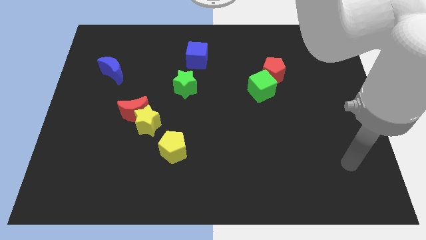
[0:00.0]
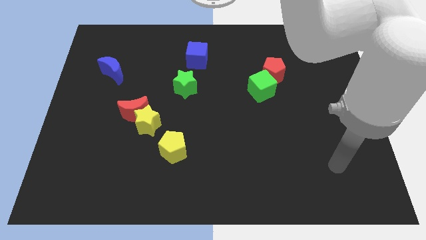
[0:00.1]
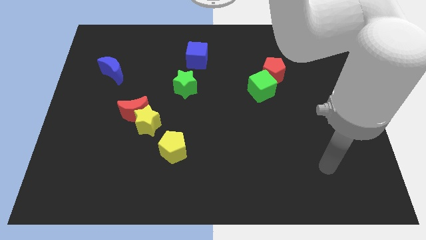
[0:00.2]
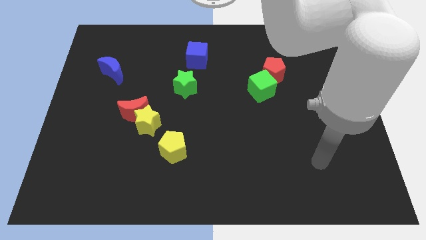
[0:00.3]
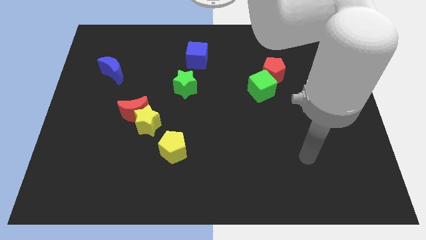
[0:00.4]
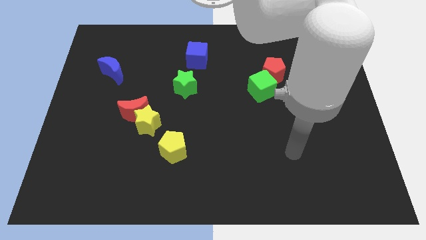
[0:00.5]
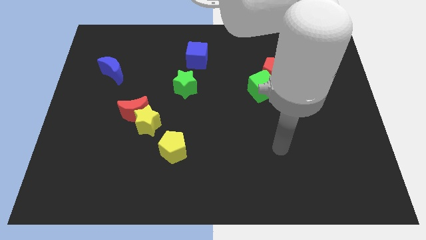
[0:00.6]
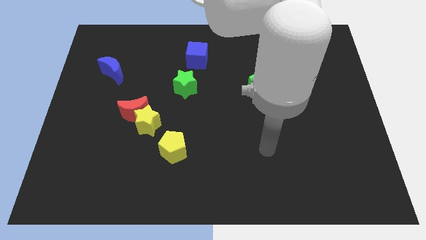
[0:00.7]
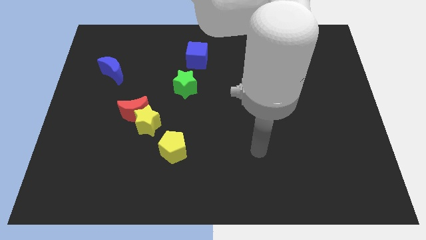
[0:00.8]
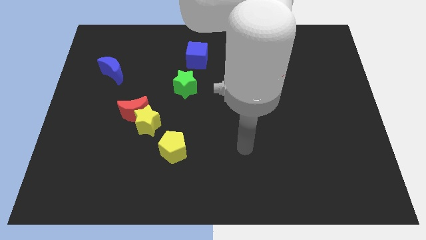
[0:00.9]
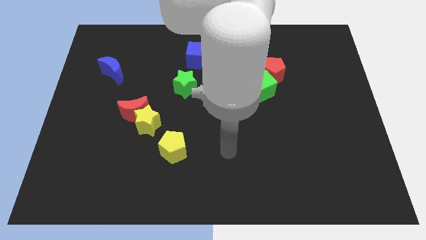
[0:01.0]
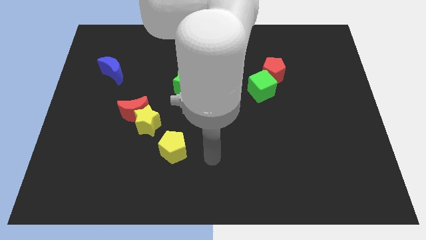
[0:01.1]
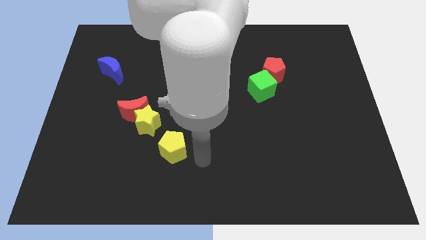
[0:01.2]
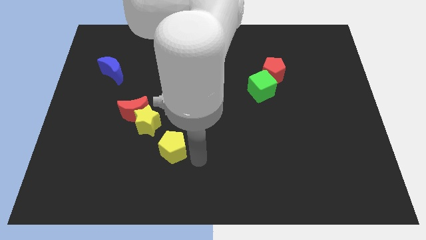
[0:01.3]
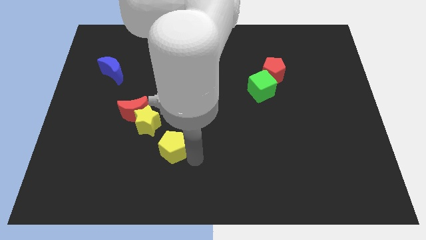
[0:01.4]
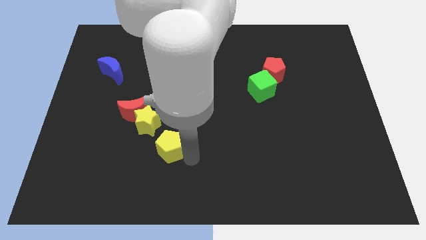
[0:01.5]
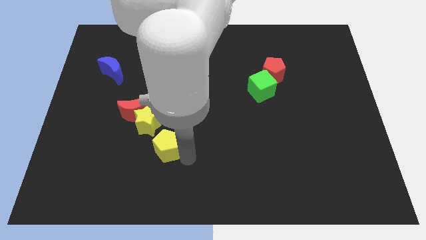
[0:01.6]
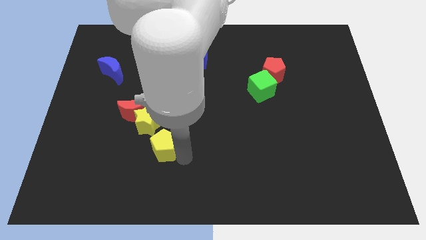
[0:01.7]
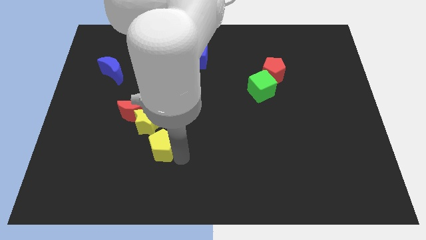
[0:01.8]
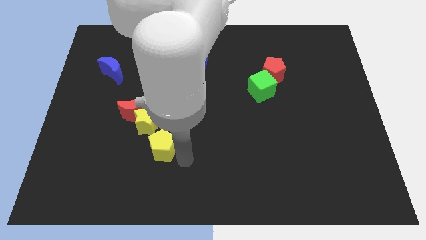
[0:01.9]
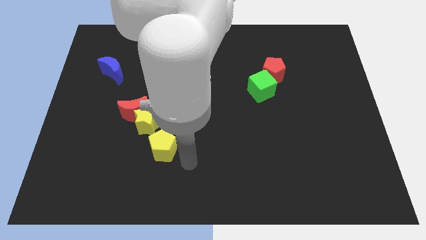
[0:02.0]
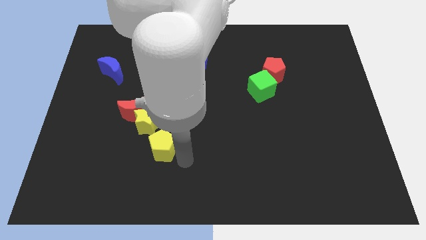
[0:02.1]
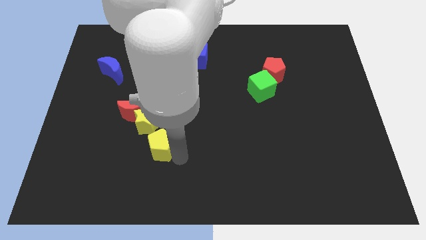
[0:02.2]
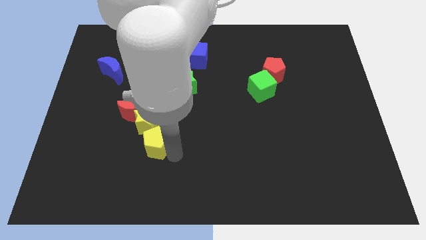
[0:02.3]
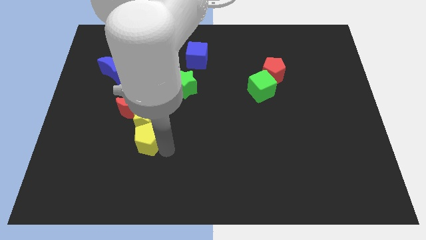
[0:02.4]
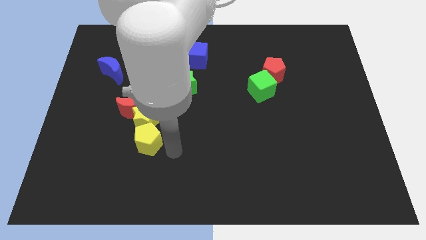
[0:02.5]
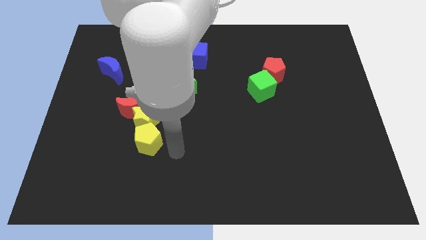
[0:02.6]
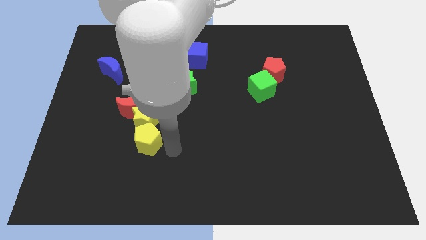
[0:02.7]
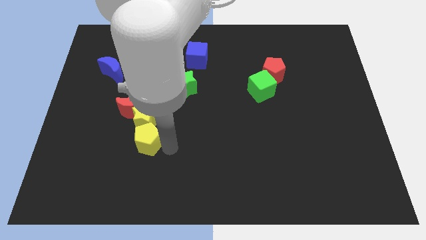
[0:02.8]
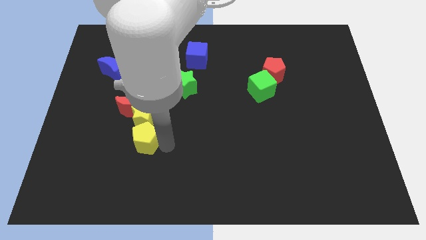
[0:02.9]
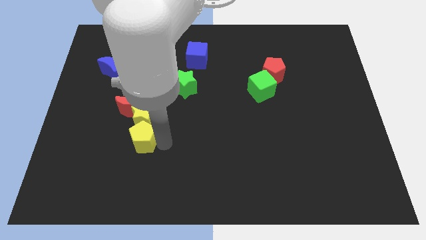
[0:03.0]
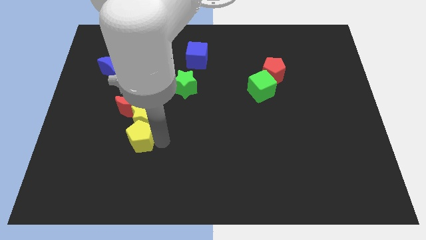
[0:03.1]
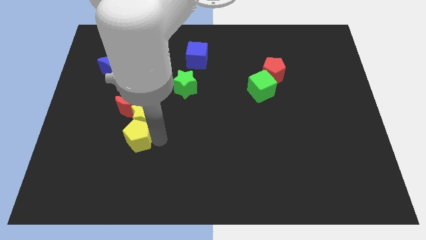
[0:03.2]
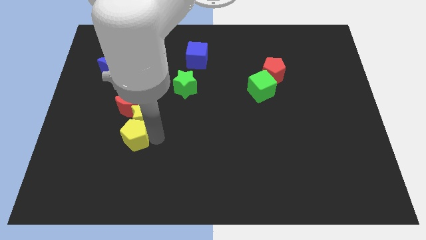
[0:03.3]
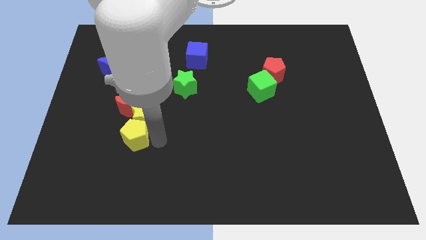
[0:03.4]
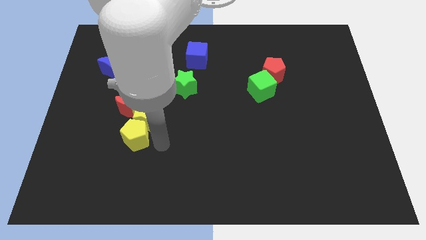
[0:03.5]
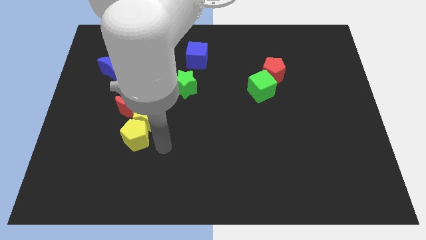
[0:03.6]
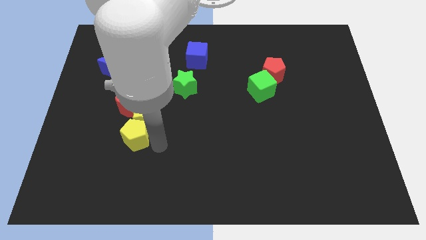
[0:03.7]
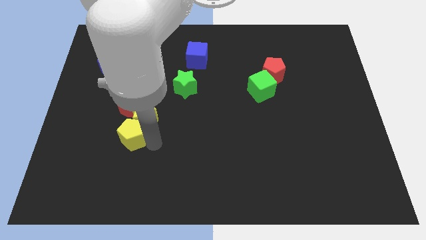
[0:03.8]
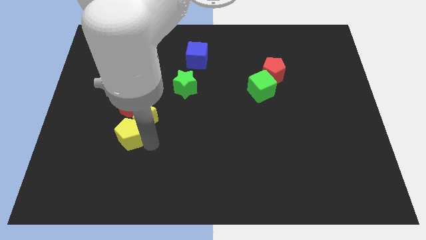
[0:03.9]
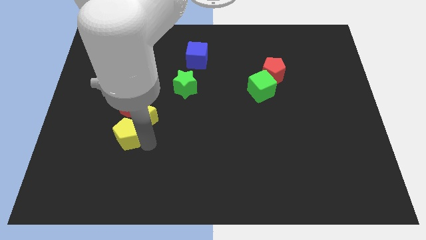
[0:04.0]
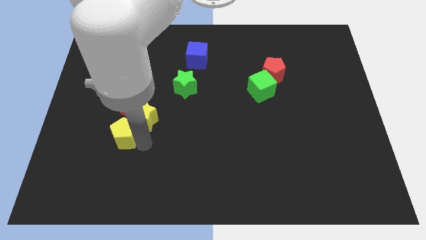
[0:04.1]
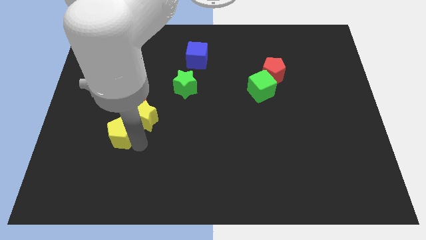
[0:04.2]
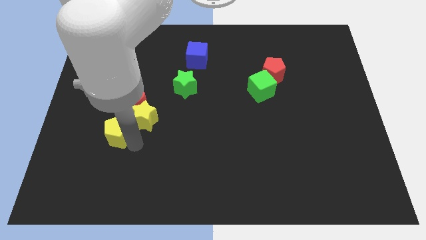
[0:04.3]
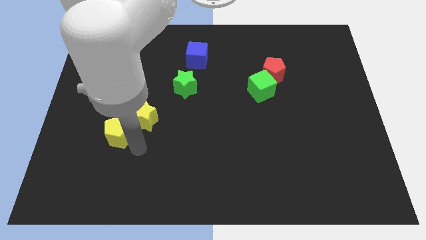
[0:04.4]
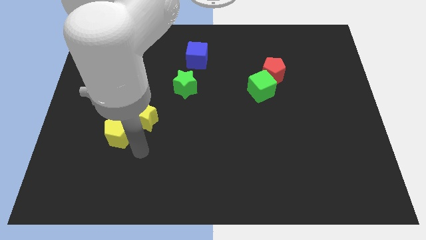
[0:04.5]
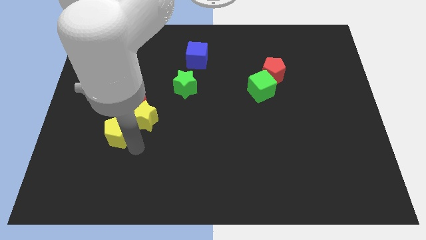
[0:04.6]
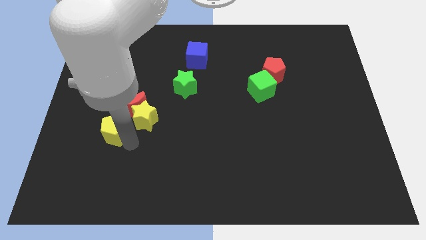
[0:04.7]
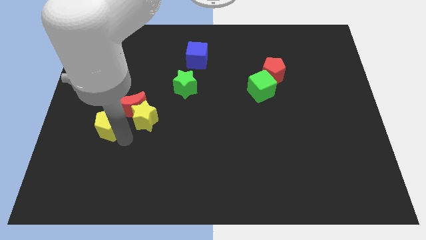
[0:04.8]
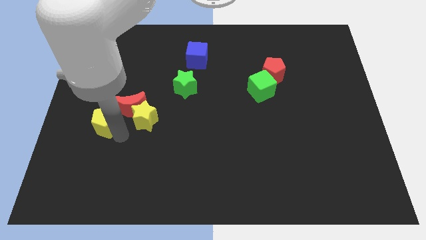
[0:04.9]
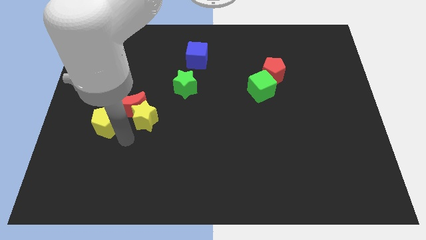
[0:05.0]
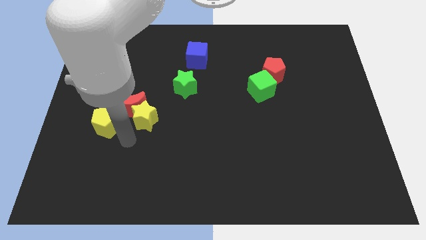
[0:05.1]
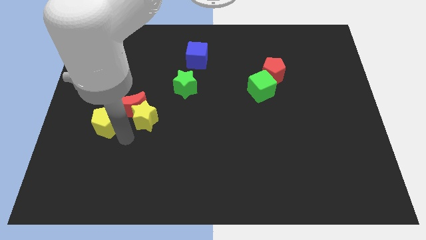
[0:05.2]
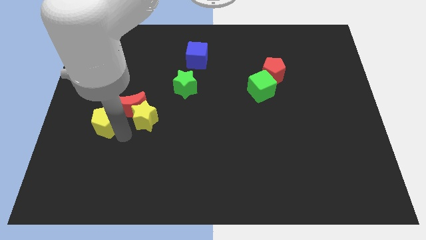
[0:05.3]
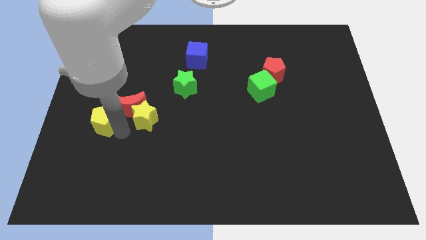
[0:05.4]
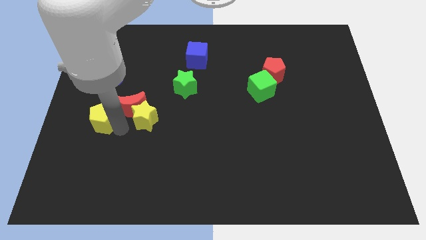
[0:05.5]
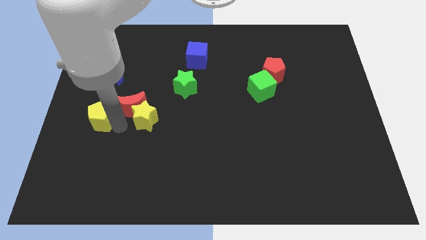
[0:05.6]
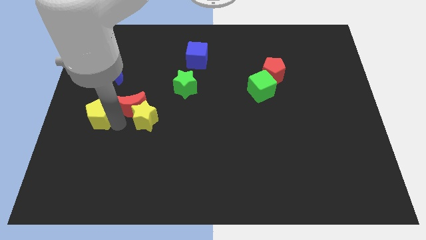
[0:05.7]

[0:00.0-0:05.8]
put the yellow pentagon to the center left

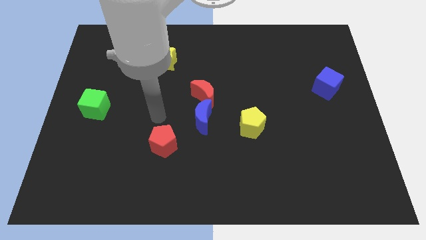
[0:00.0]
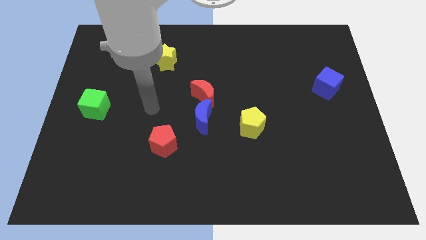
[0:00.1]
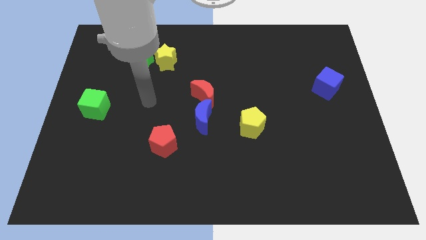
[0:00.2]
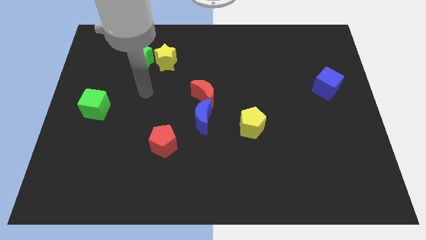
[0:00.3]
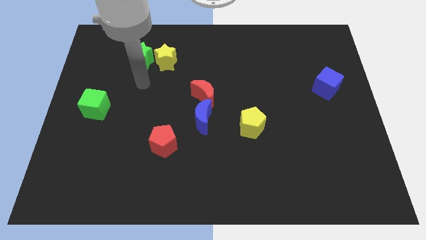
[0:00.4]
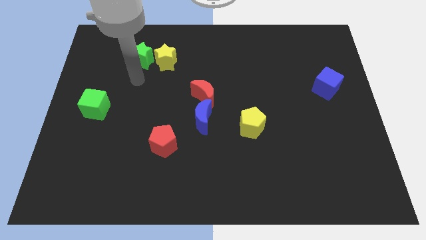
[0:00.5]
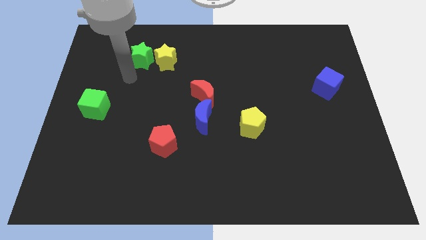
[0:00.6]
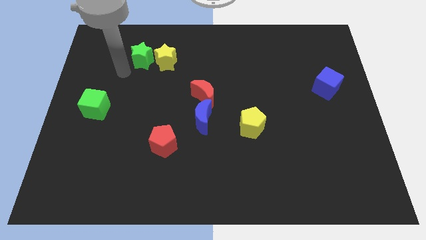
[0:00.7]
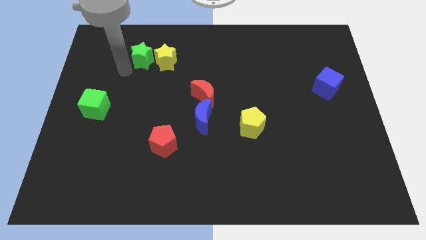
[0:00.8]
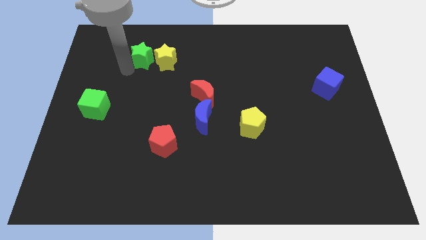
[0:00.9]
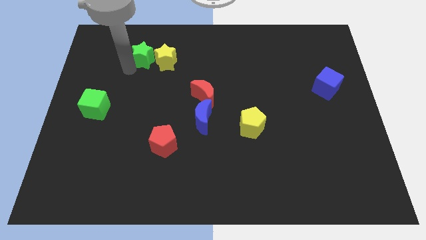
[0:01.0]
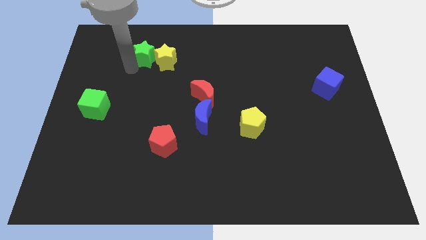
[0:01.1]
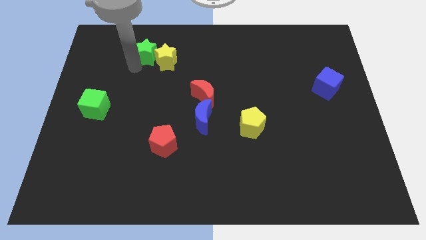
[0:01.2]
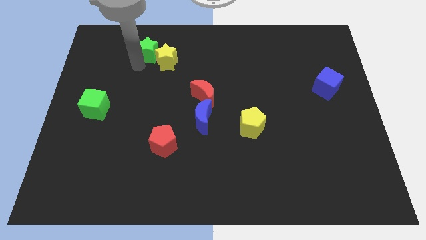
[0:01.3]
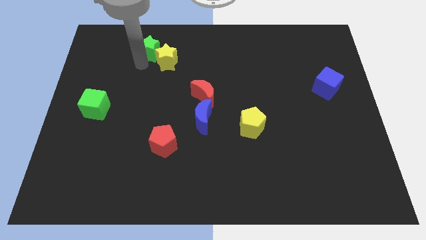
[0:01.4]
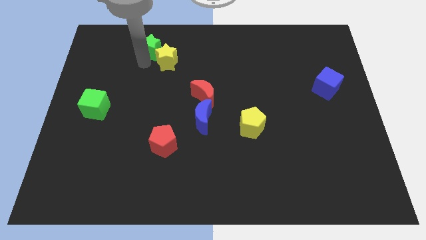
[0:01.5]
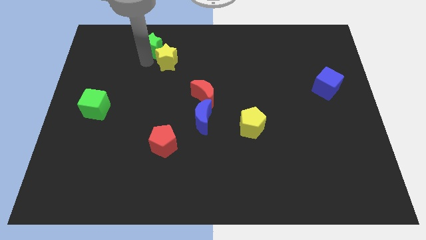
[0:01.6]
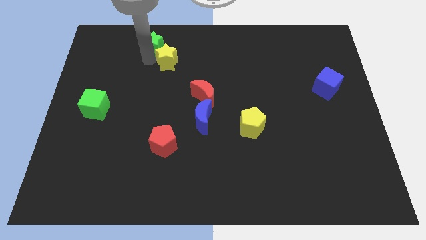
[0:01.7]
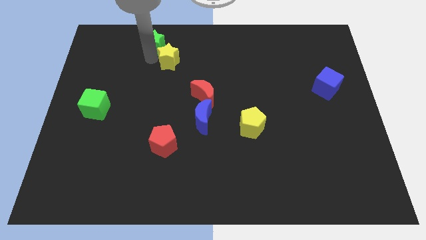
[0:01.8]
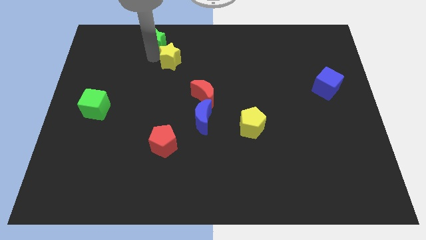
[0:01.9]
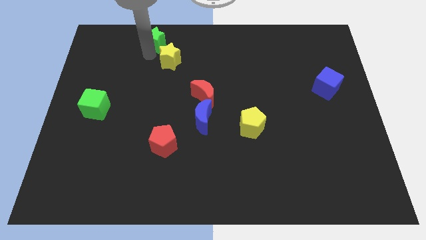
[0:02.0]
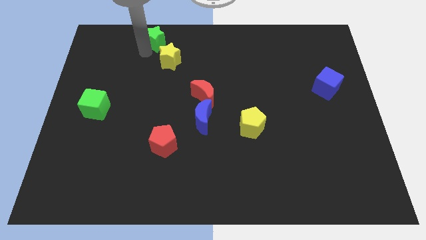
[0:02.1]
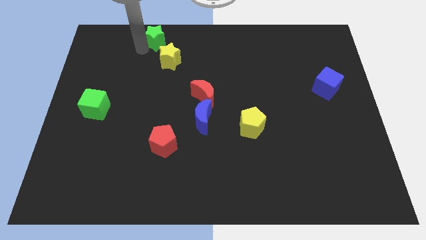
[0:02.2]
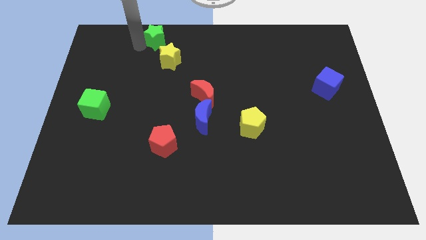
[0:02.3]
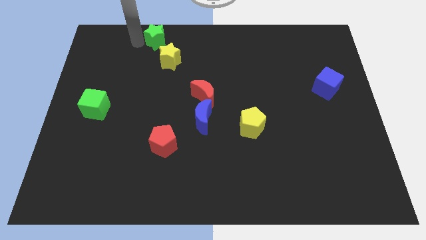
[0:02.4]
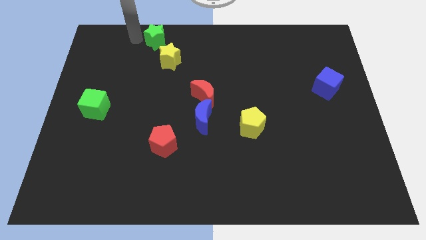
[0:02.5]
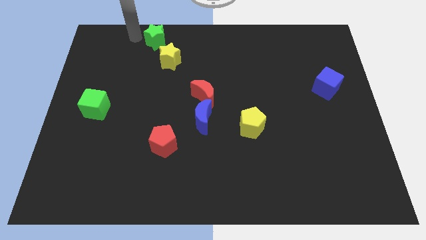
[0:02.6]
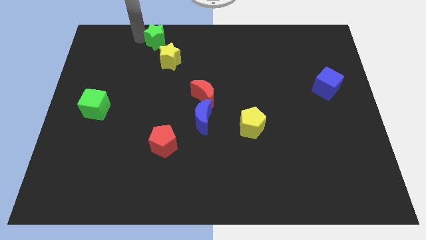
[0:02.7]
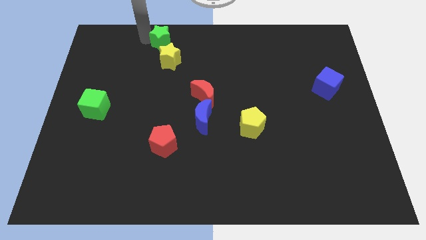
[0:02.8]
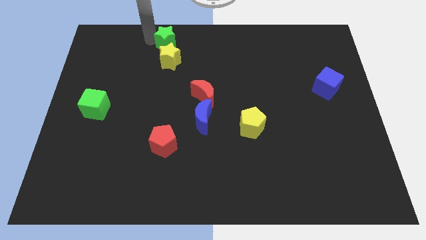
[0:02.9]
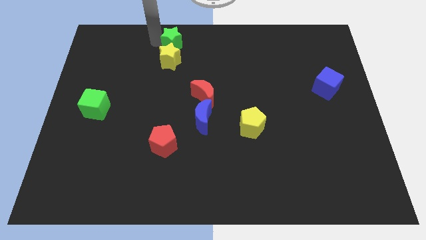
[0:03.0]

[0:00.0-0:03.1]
move the green star to the top side
